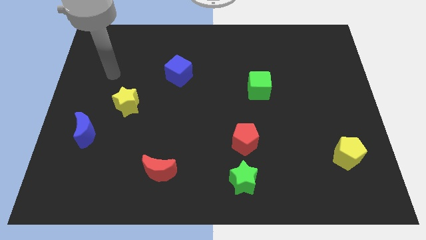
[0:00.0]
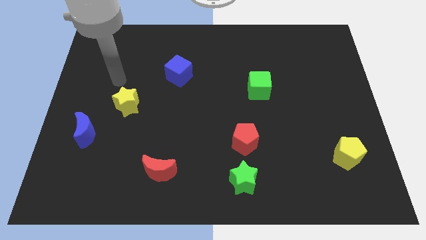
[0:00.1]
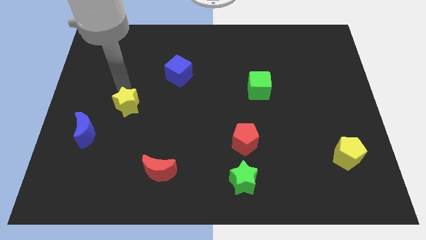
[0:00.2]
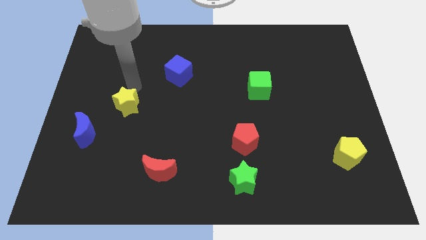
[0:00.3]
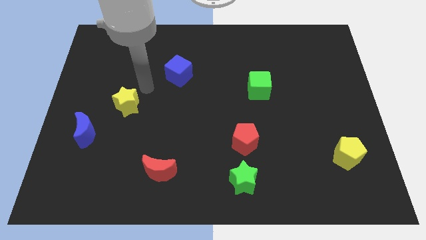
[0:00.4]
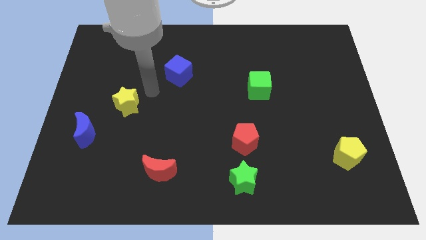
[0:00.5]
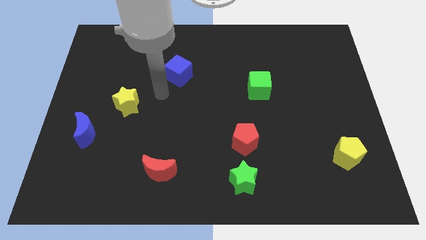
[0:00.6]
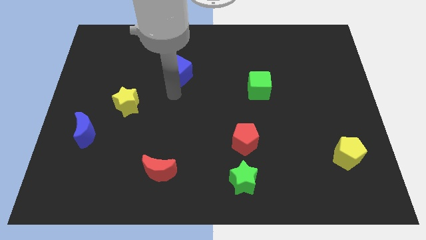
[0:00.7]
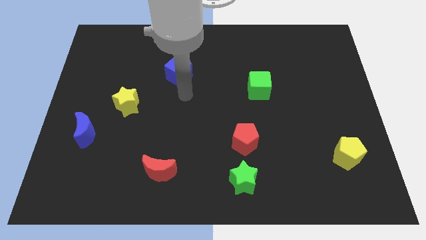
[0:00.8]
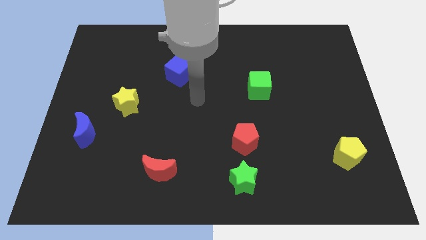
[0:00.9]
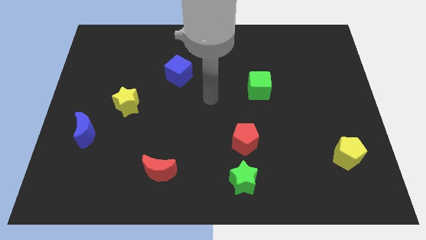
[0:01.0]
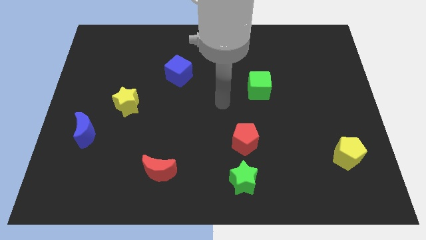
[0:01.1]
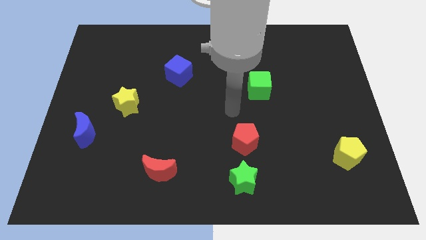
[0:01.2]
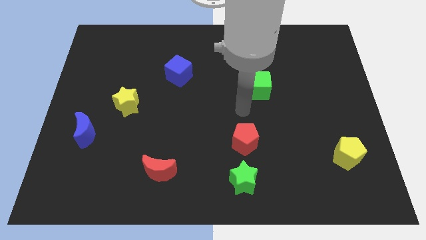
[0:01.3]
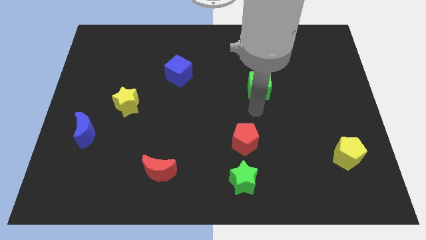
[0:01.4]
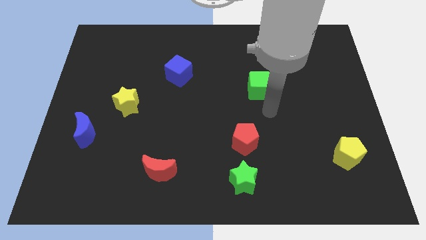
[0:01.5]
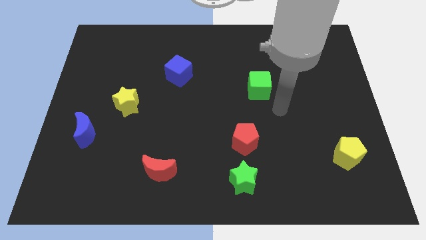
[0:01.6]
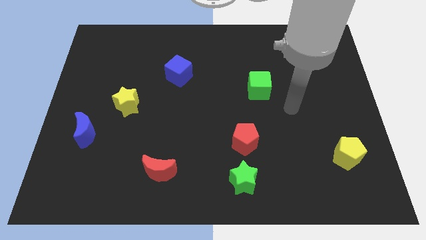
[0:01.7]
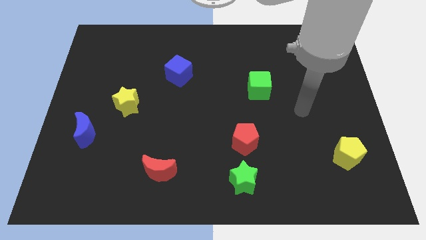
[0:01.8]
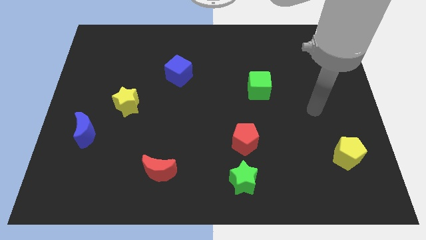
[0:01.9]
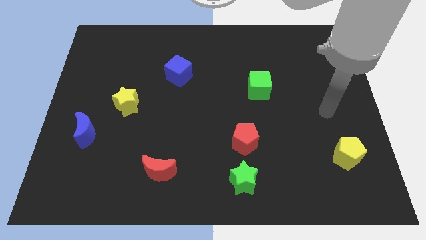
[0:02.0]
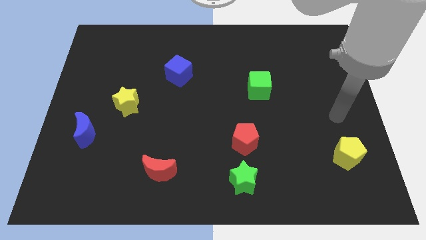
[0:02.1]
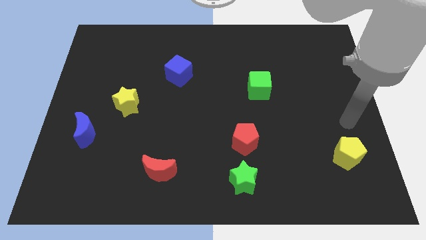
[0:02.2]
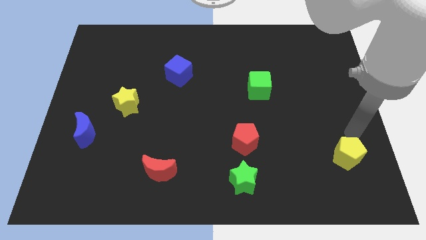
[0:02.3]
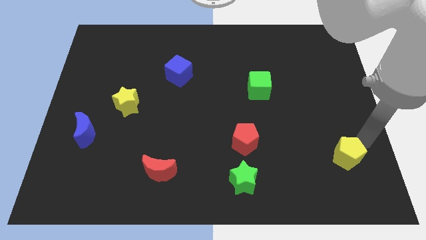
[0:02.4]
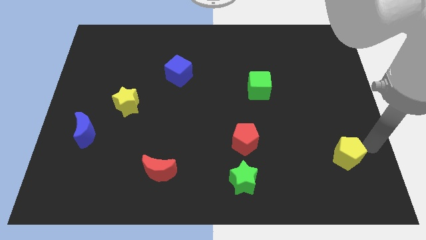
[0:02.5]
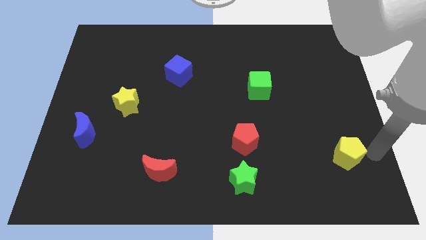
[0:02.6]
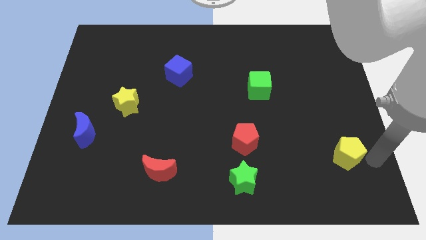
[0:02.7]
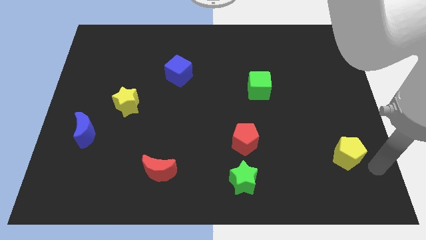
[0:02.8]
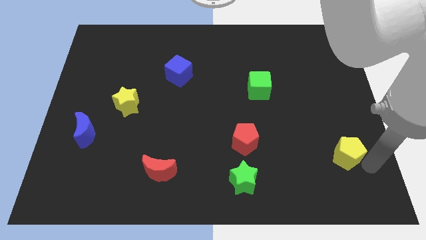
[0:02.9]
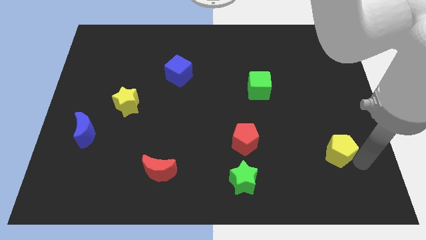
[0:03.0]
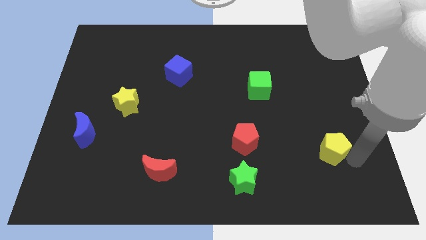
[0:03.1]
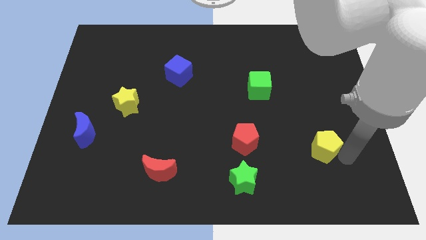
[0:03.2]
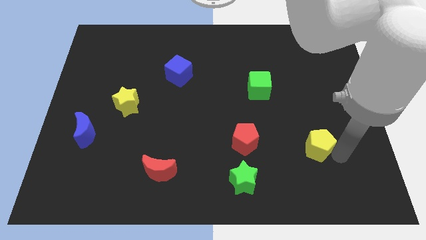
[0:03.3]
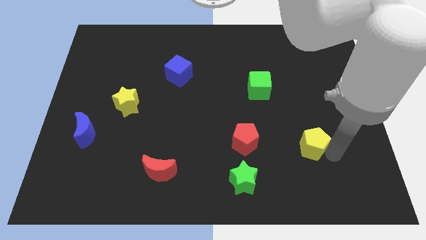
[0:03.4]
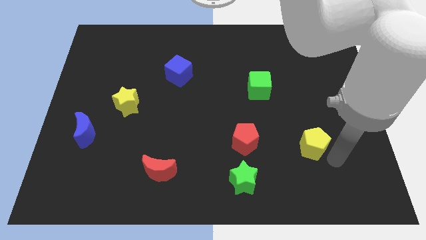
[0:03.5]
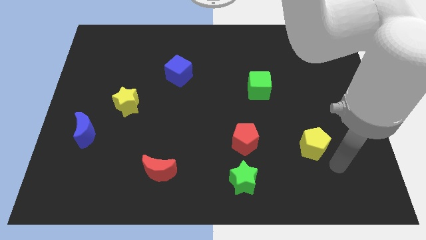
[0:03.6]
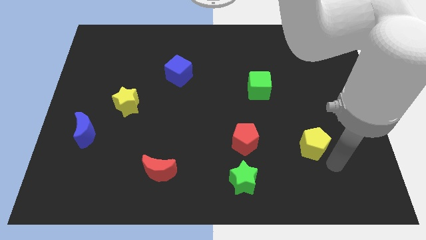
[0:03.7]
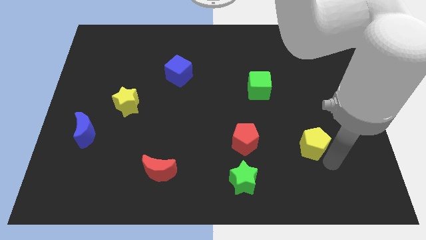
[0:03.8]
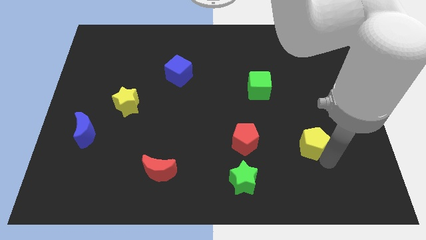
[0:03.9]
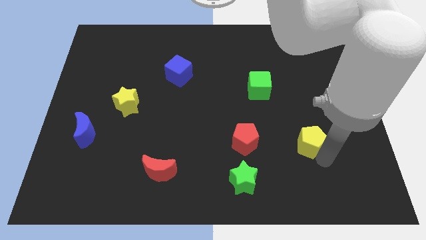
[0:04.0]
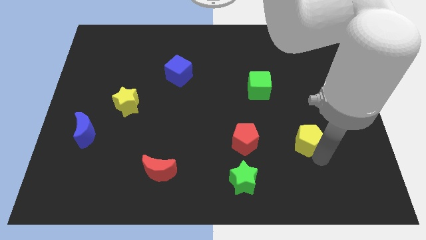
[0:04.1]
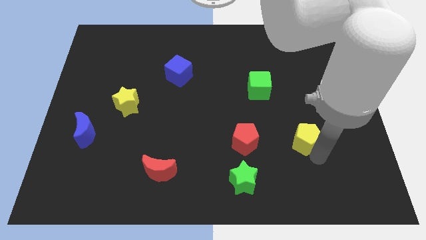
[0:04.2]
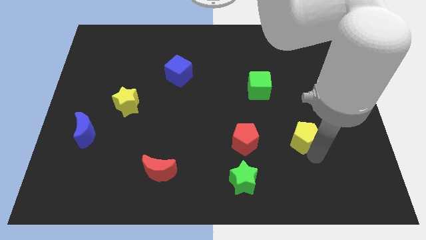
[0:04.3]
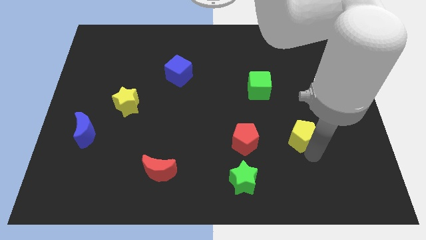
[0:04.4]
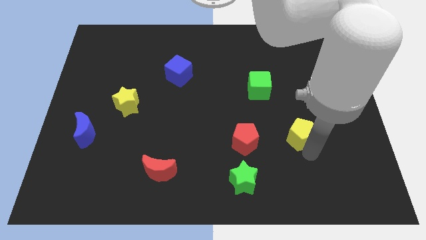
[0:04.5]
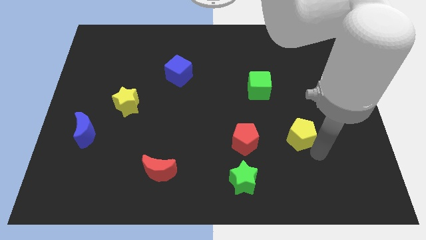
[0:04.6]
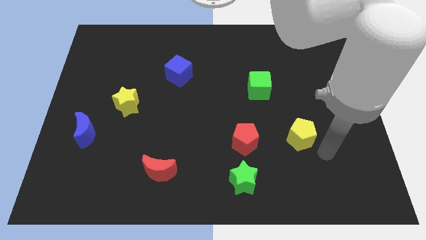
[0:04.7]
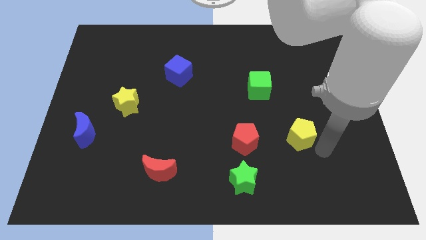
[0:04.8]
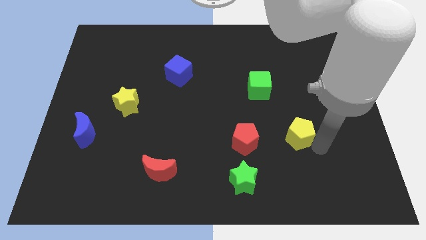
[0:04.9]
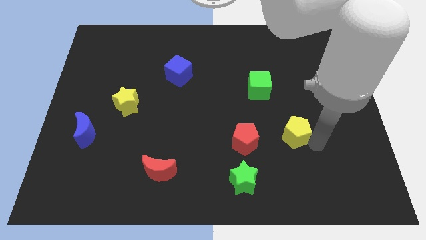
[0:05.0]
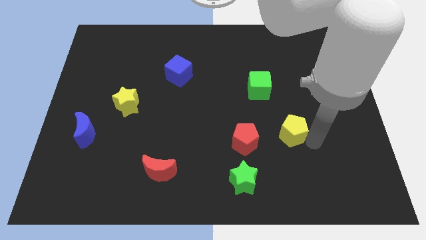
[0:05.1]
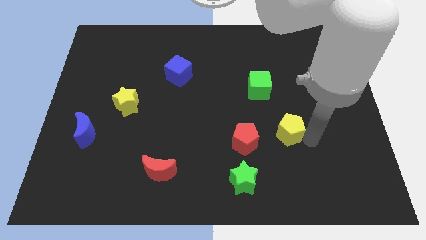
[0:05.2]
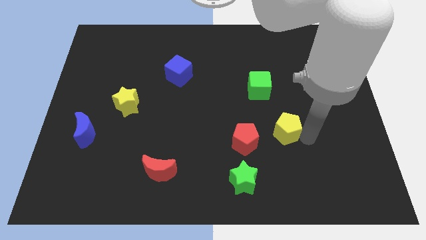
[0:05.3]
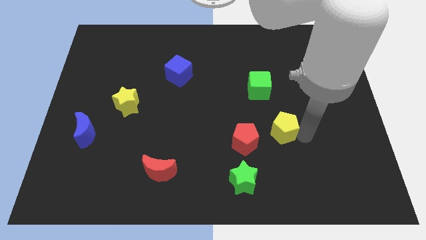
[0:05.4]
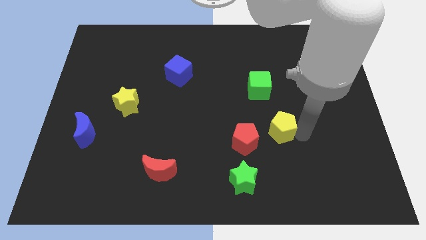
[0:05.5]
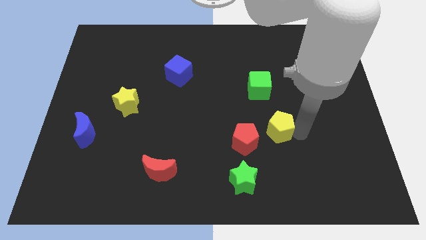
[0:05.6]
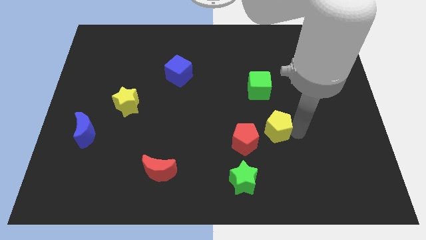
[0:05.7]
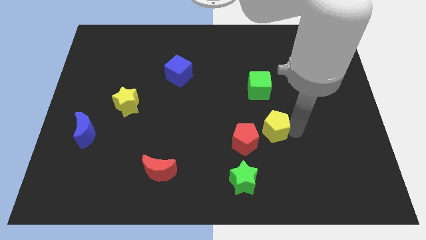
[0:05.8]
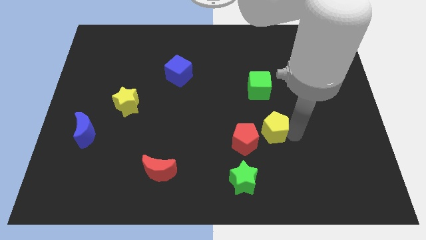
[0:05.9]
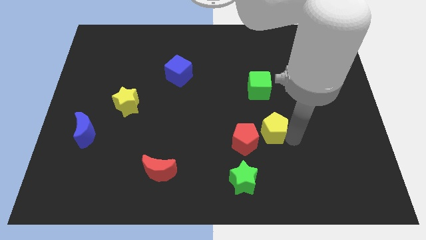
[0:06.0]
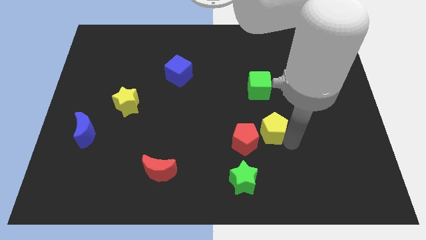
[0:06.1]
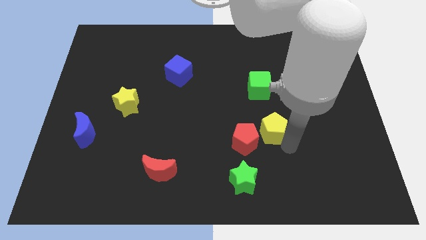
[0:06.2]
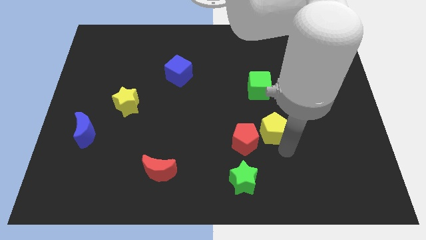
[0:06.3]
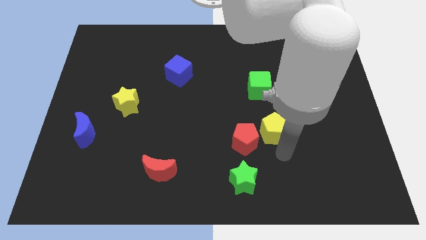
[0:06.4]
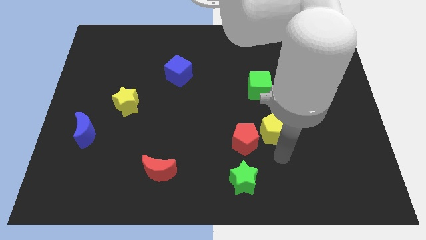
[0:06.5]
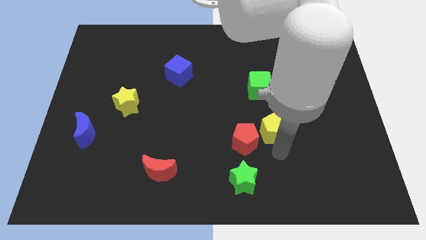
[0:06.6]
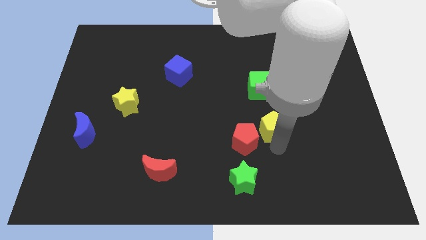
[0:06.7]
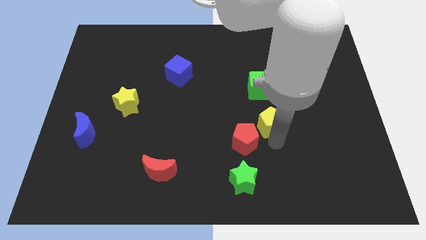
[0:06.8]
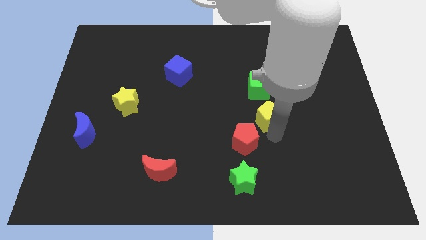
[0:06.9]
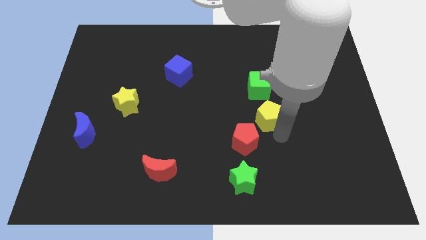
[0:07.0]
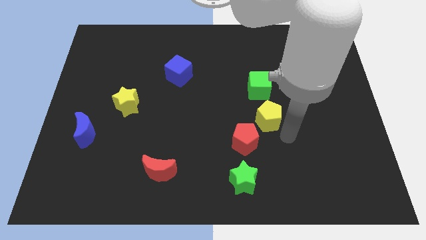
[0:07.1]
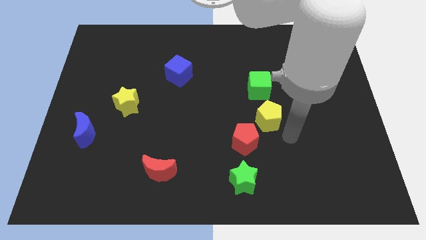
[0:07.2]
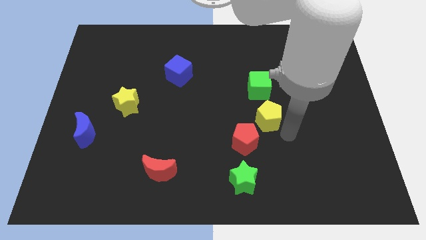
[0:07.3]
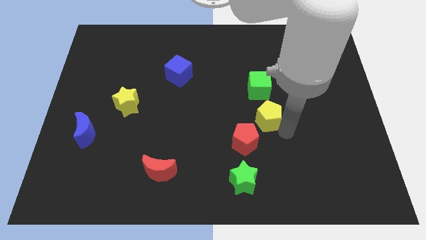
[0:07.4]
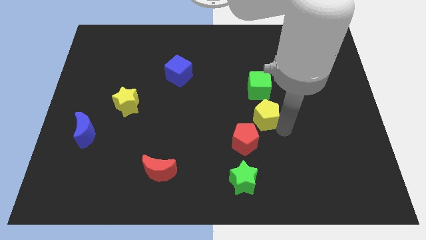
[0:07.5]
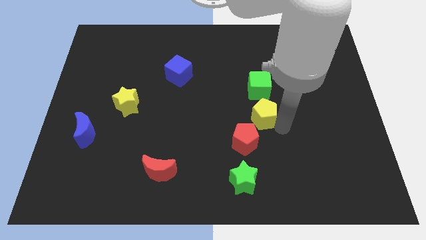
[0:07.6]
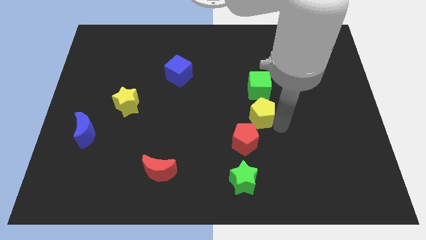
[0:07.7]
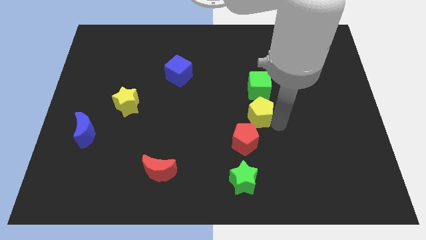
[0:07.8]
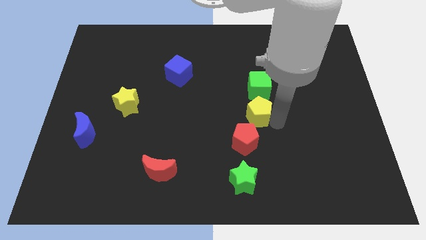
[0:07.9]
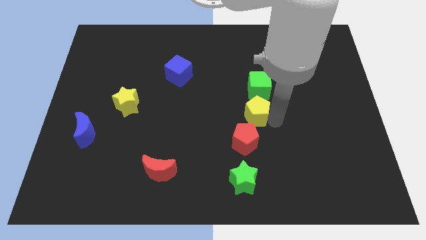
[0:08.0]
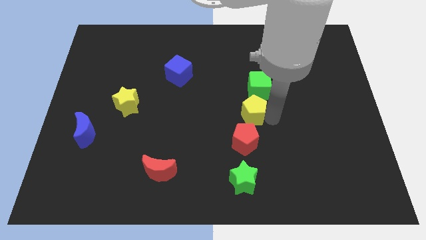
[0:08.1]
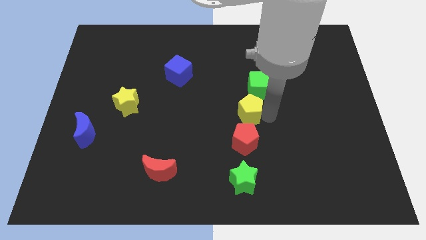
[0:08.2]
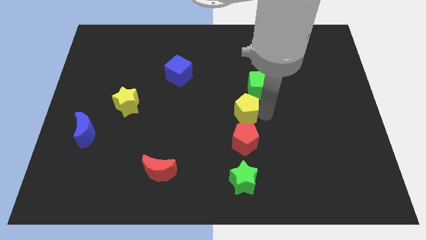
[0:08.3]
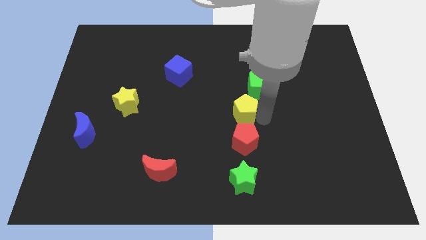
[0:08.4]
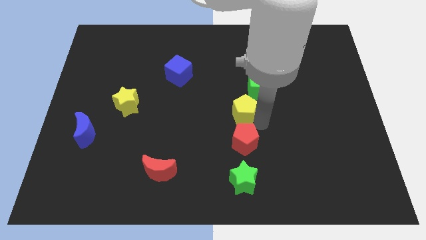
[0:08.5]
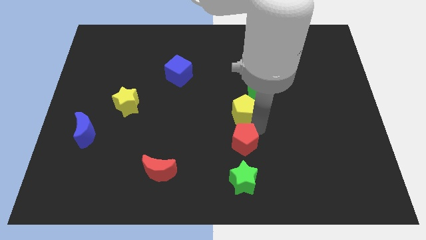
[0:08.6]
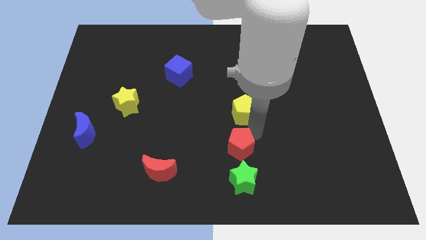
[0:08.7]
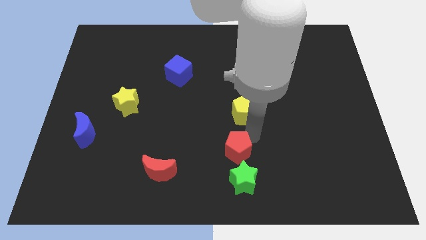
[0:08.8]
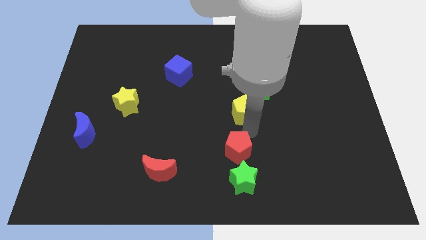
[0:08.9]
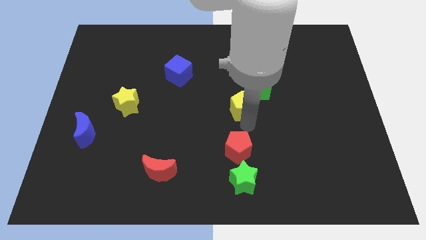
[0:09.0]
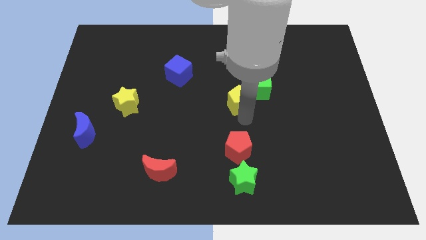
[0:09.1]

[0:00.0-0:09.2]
push the yellow pentagon left of the green cube
